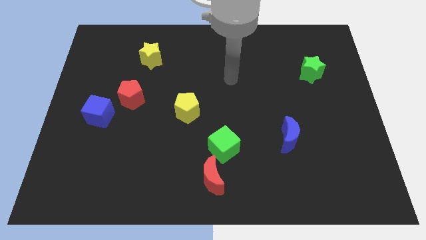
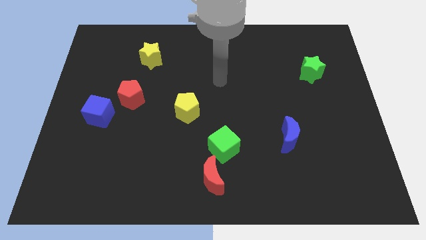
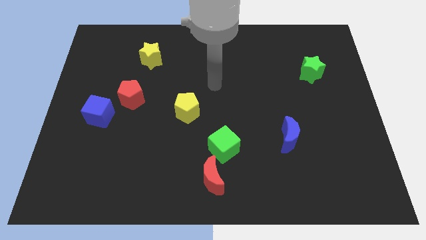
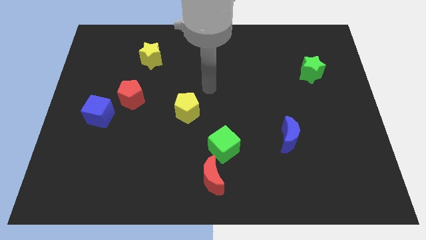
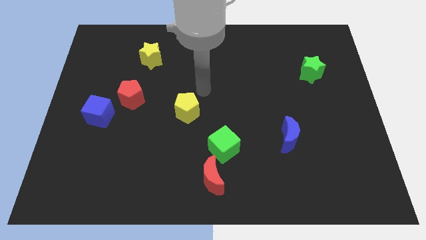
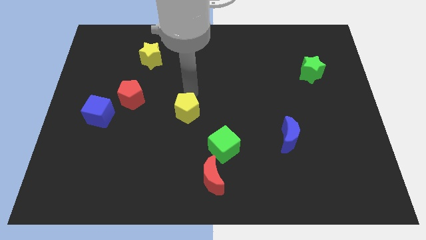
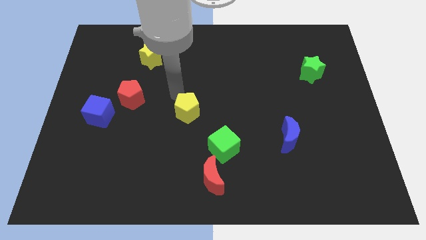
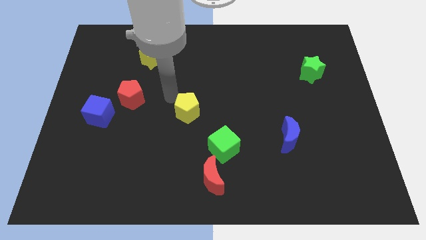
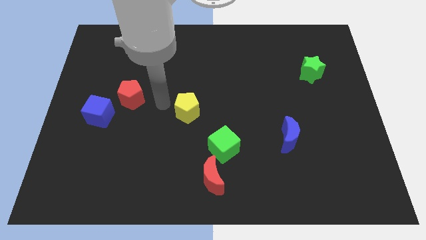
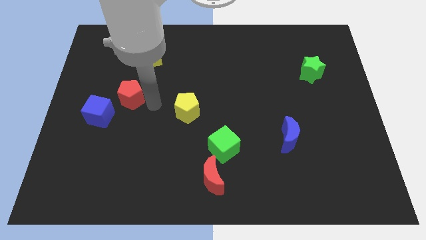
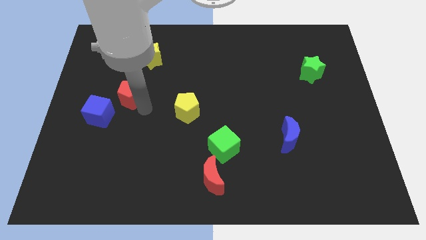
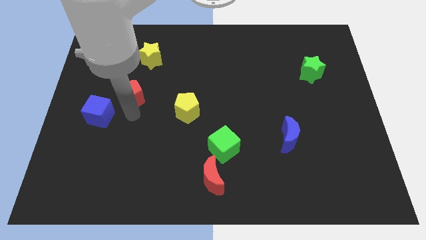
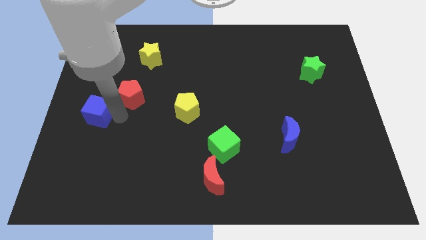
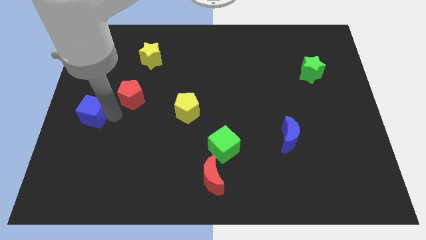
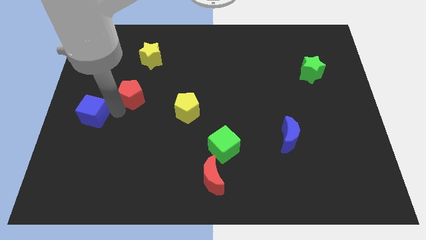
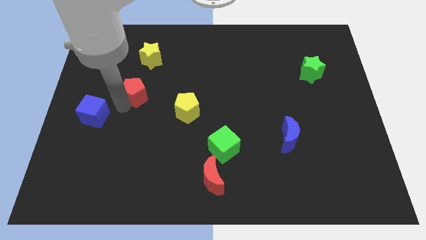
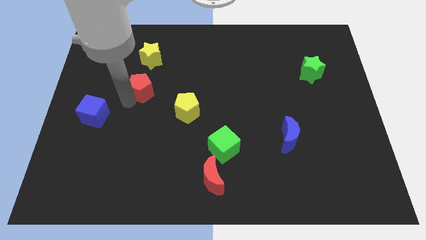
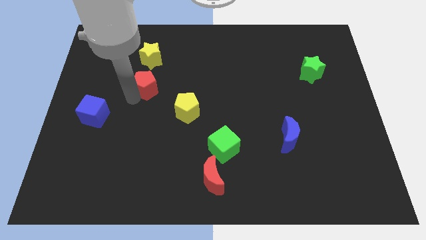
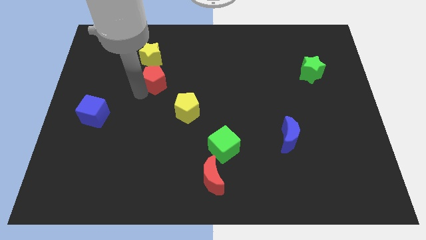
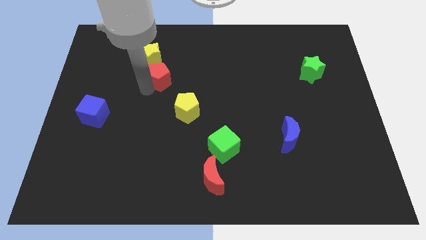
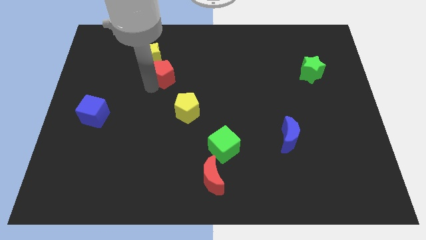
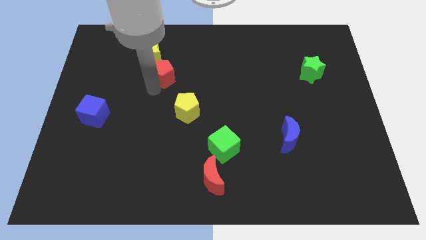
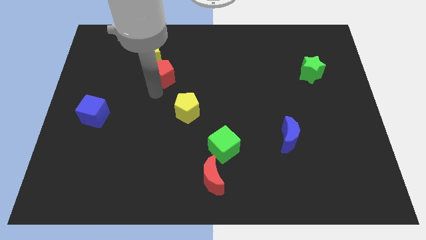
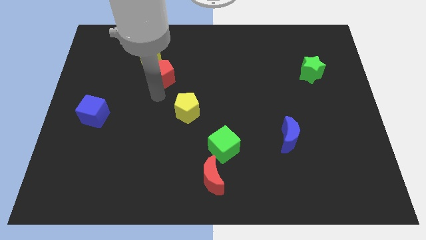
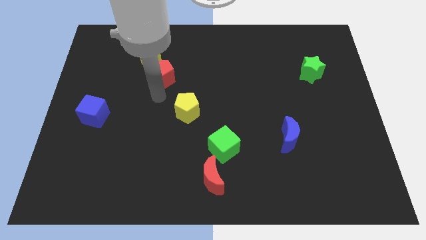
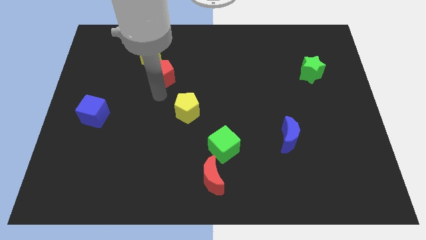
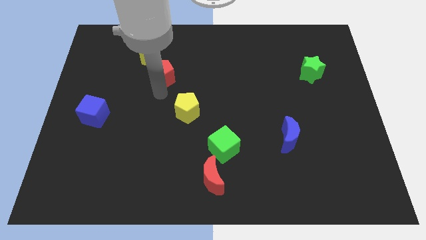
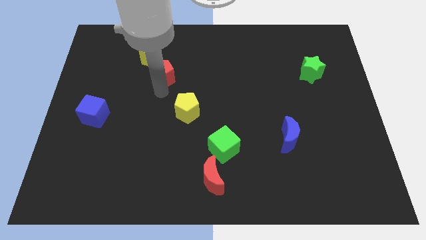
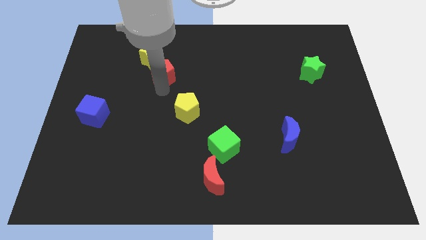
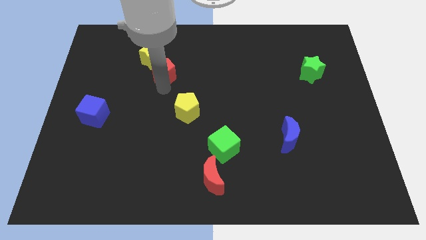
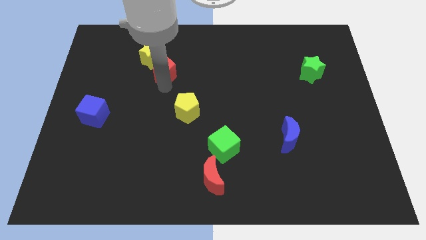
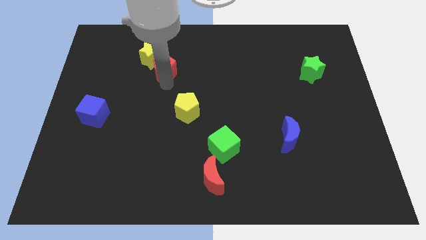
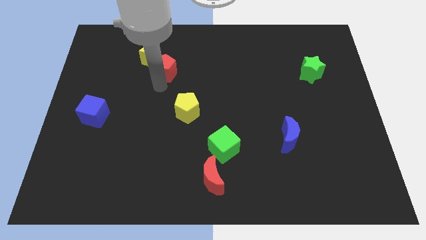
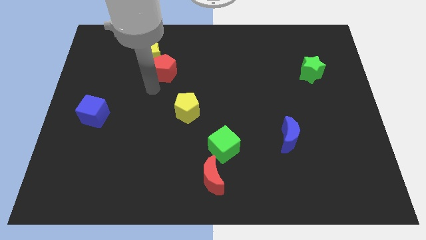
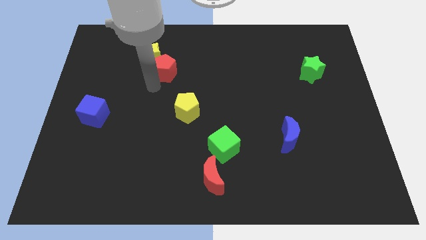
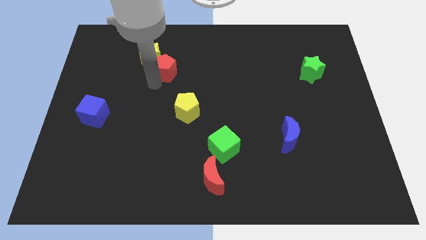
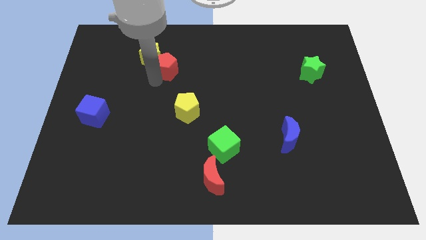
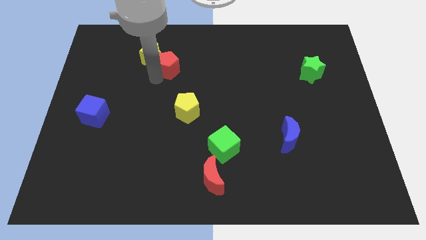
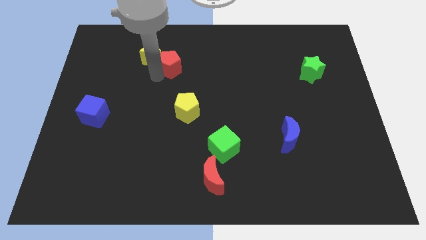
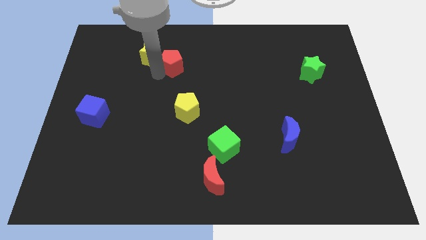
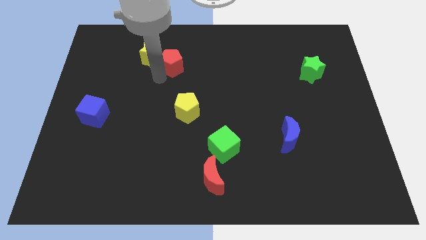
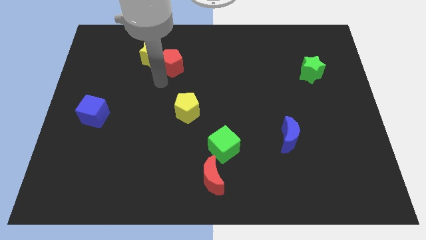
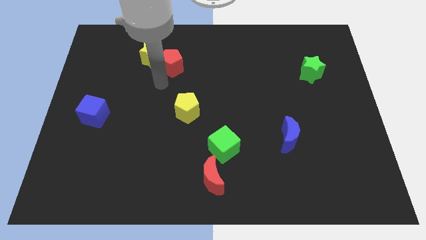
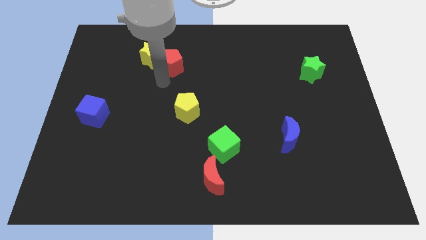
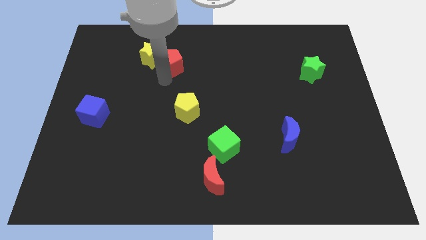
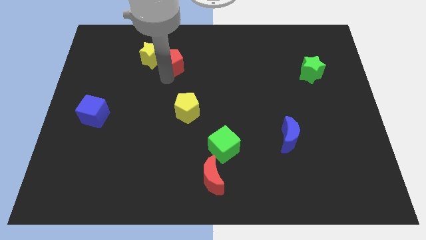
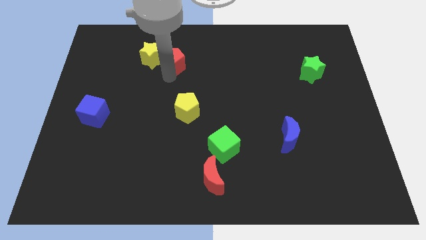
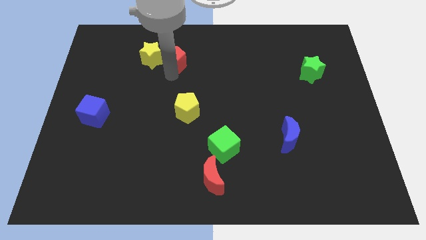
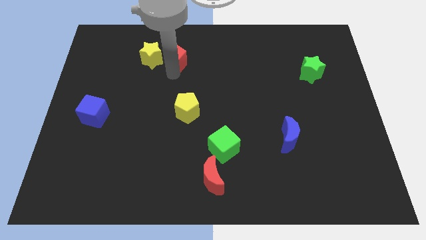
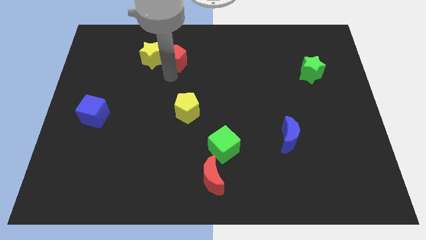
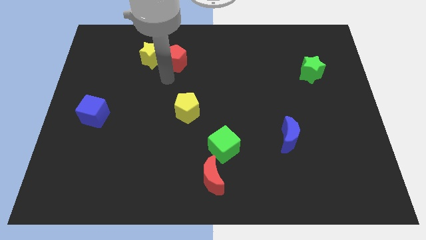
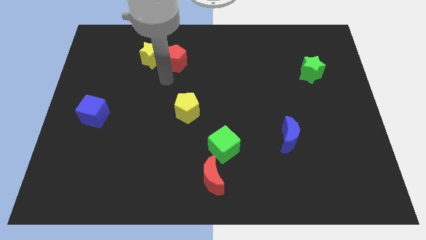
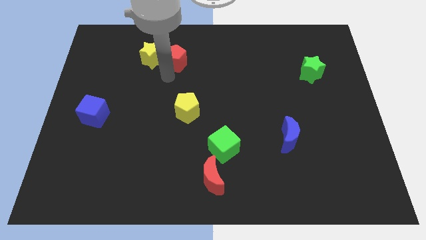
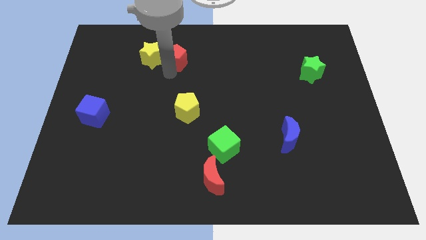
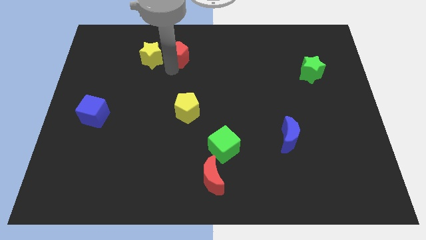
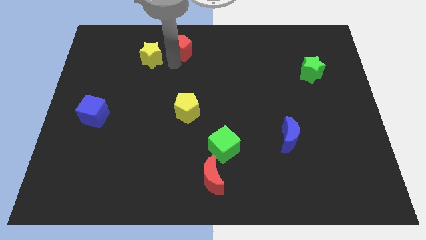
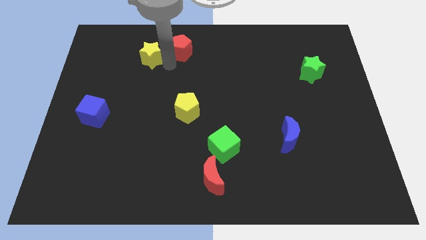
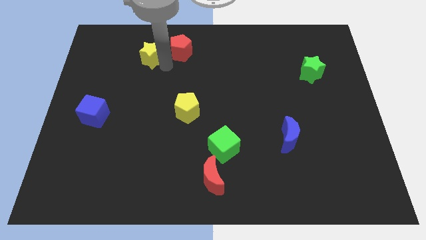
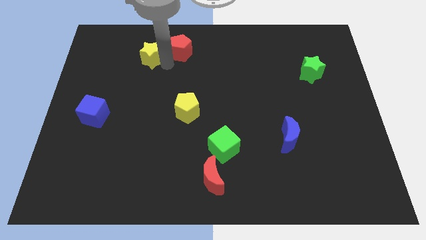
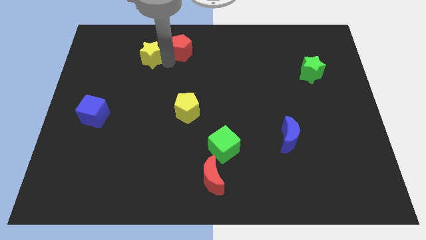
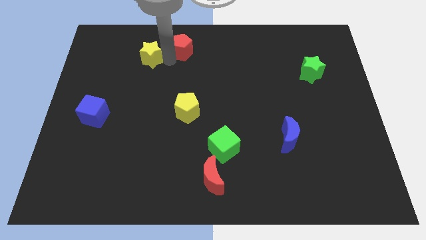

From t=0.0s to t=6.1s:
push the red pentagon to the top
